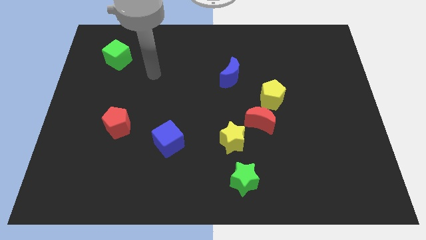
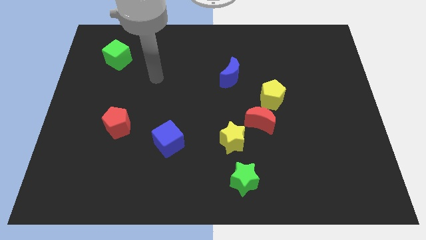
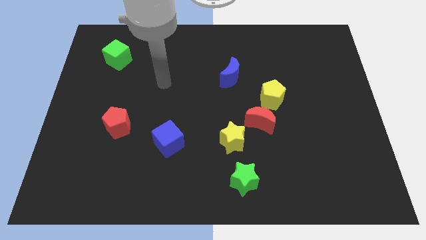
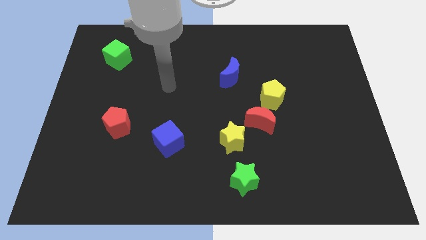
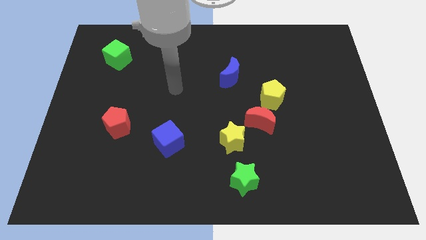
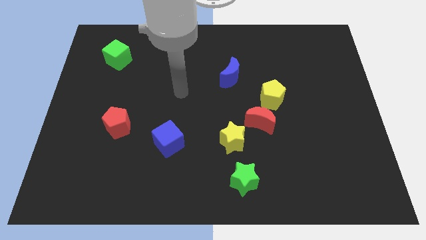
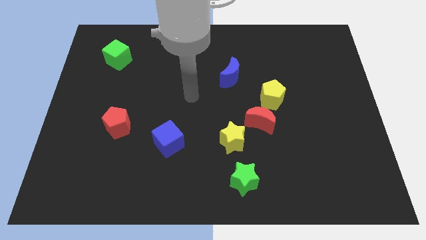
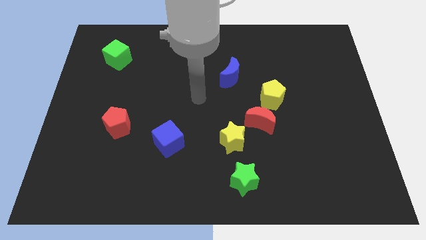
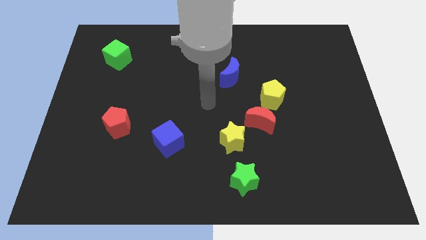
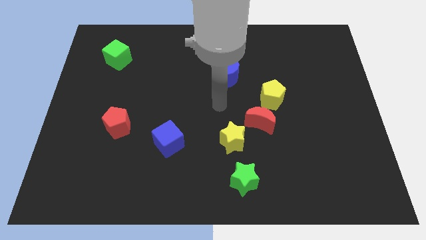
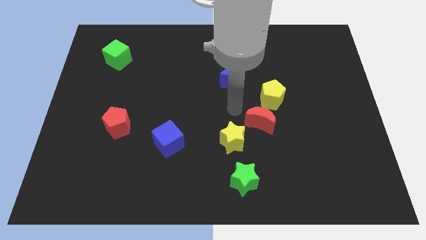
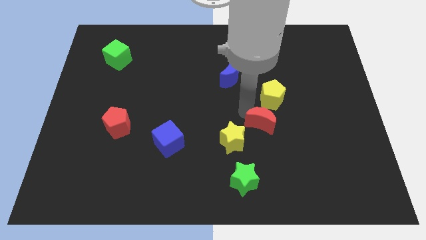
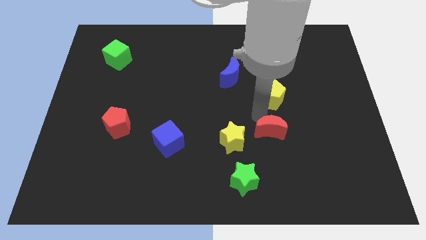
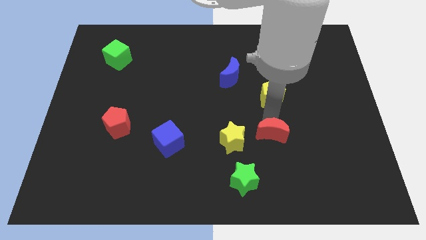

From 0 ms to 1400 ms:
move the yellow pentagon away from the red moon

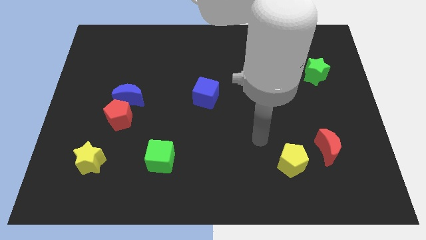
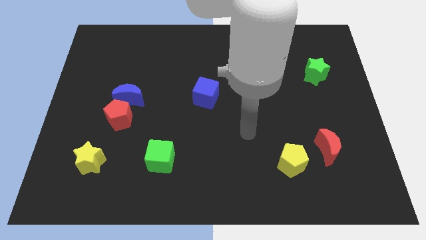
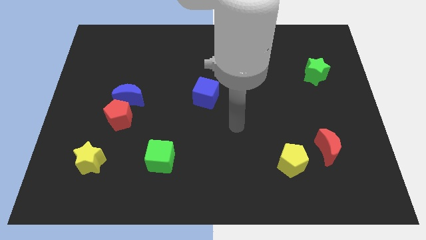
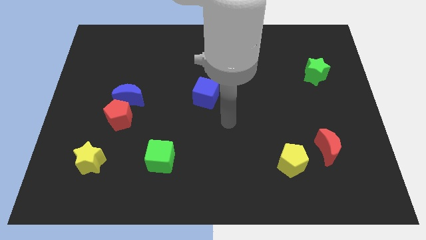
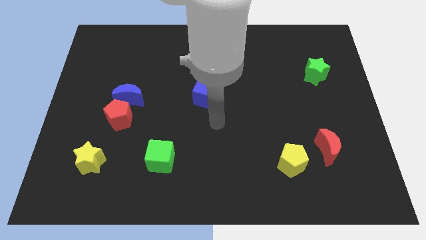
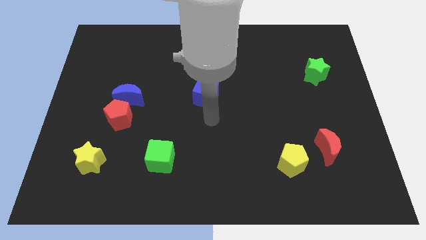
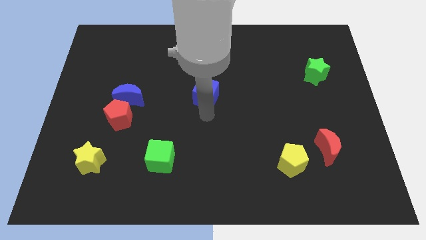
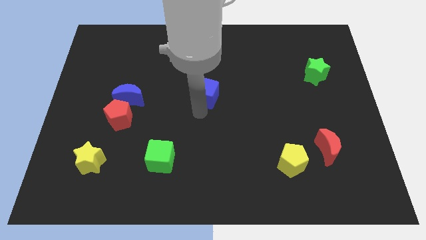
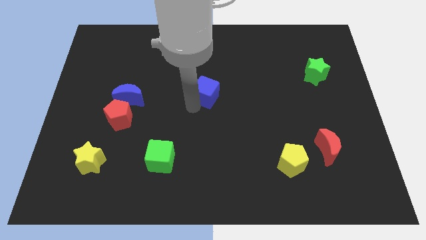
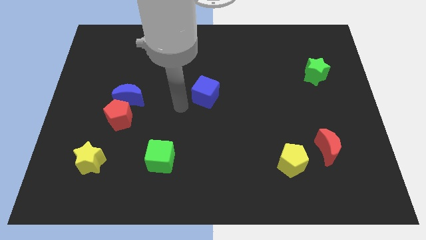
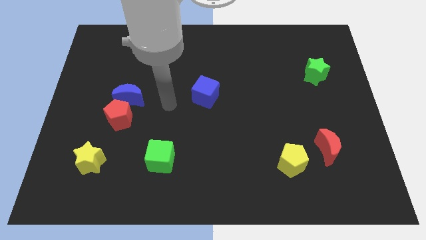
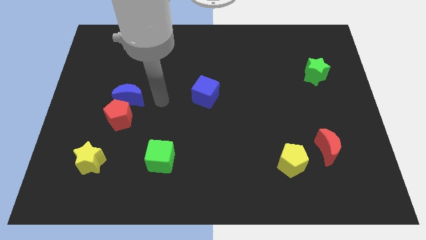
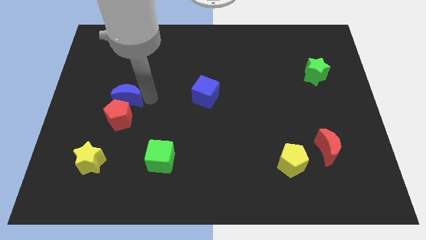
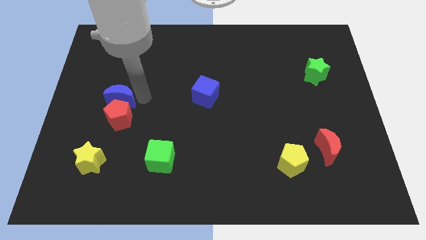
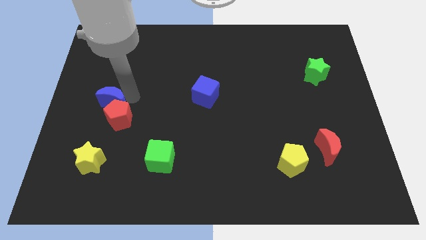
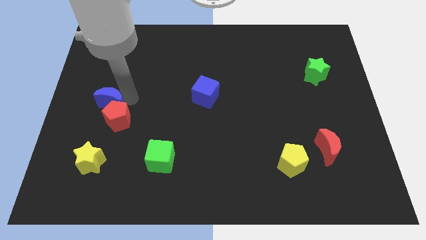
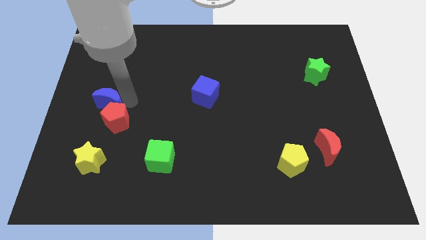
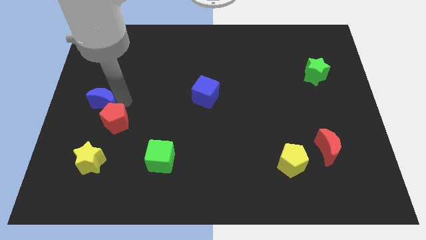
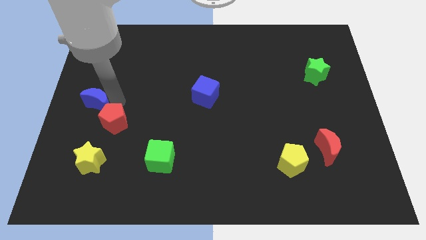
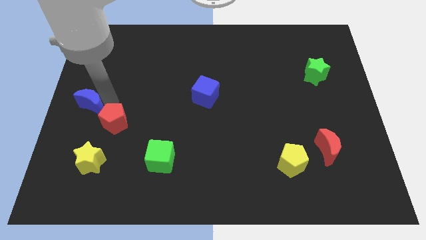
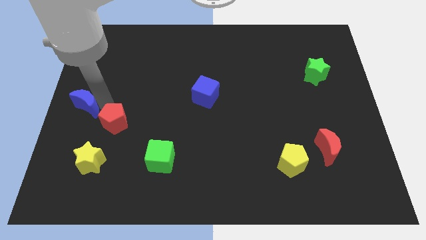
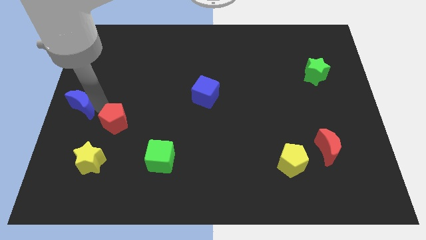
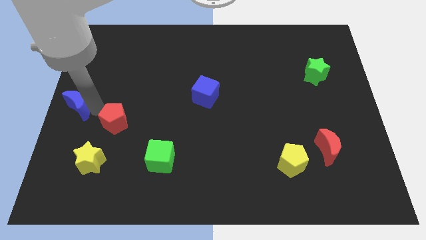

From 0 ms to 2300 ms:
move the red pentagon away from the blue moon

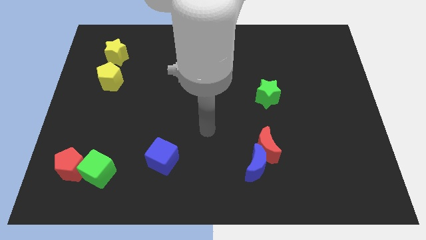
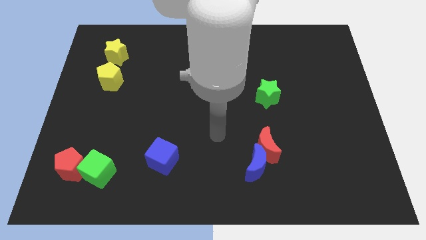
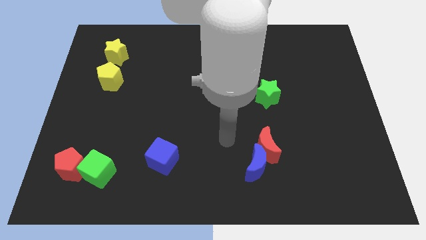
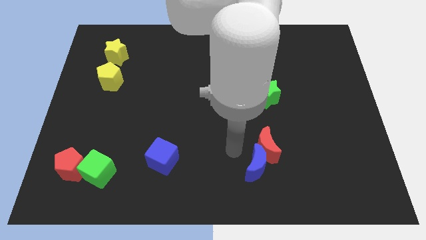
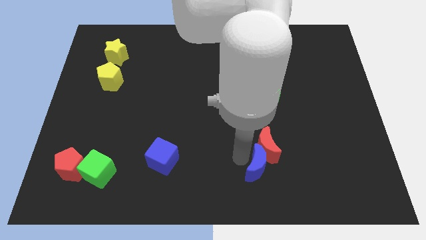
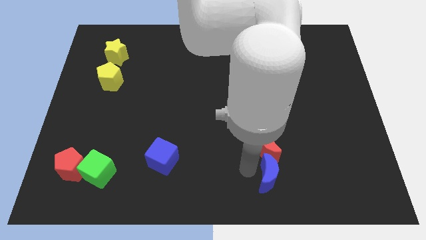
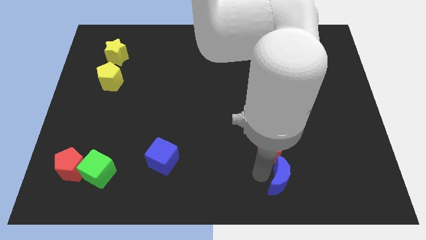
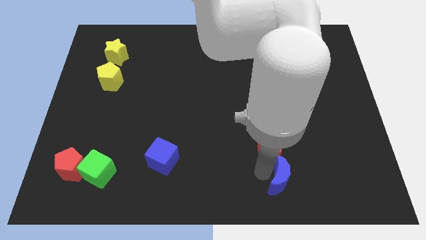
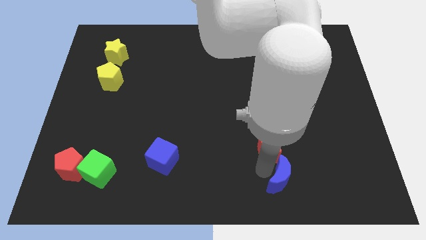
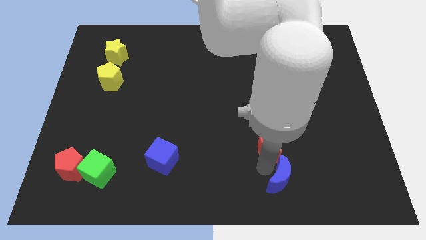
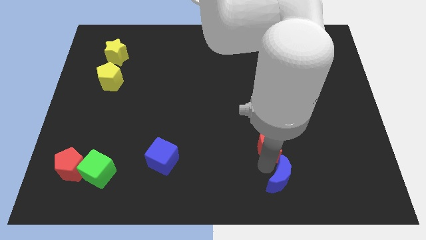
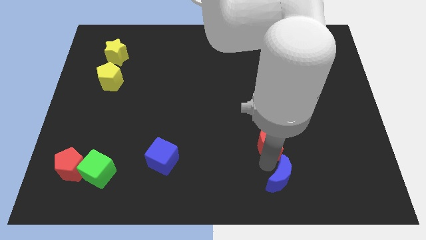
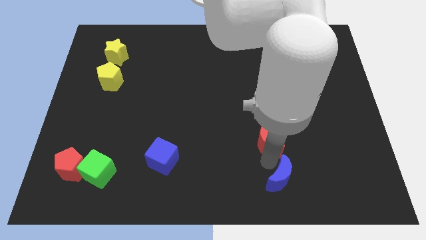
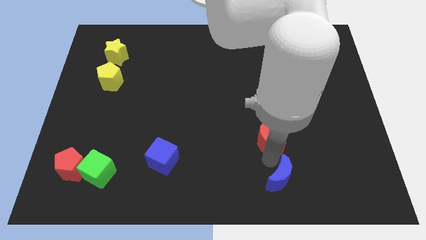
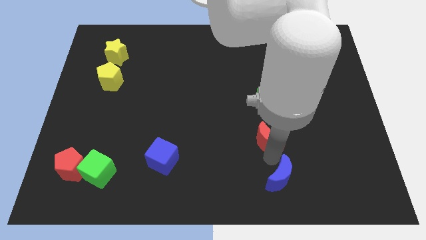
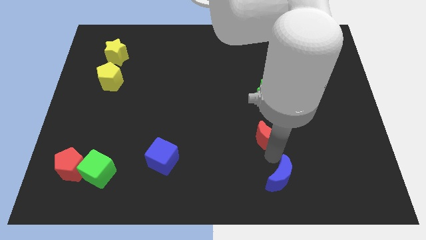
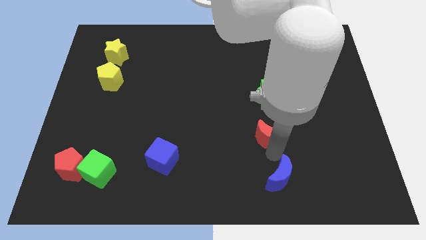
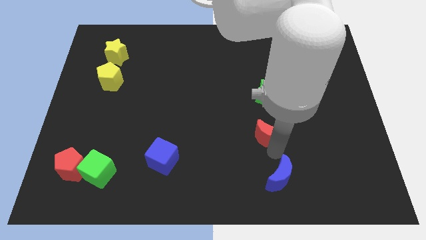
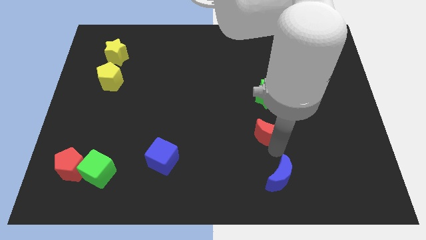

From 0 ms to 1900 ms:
separate the red moon from the blue moon

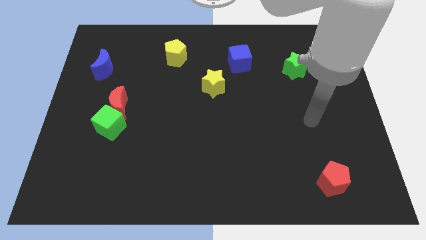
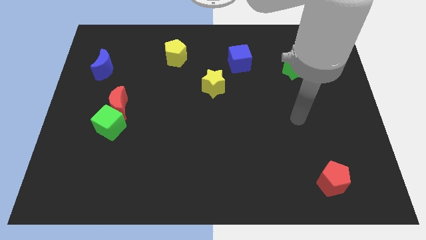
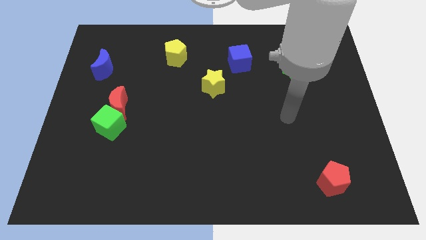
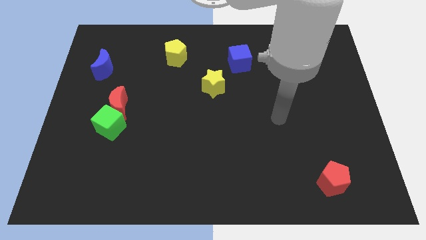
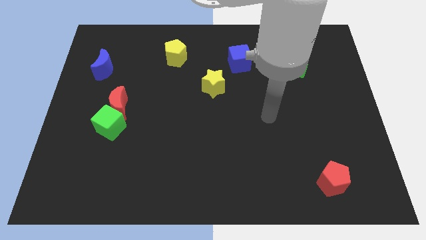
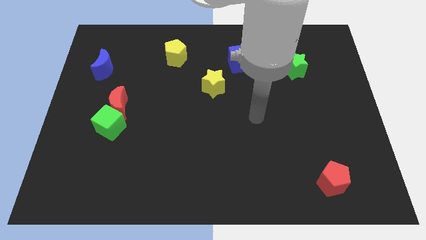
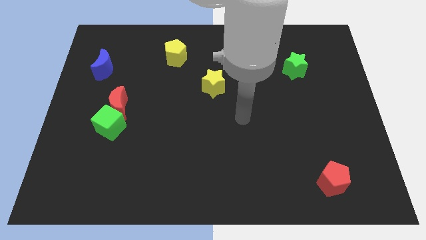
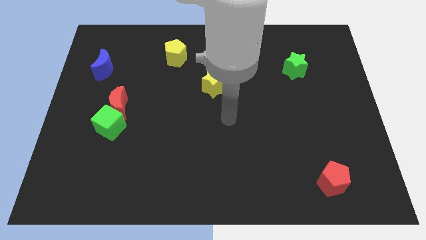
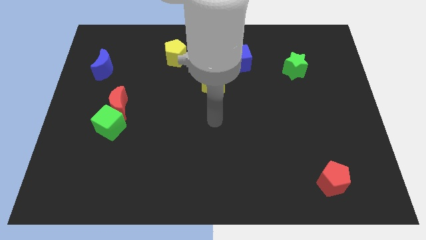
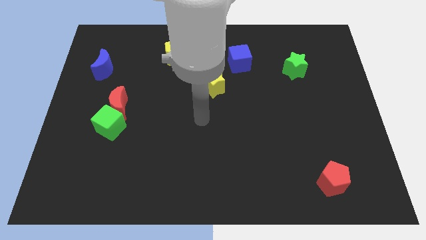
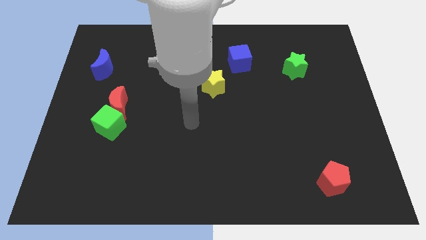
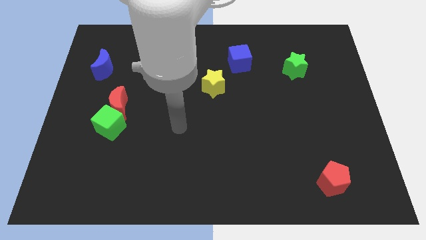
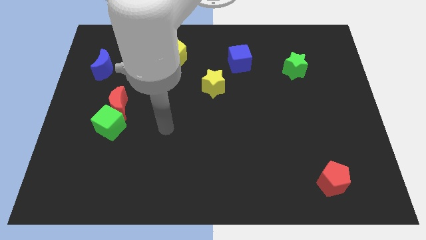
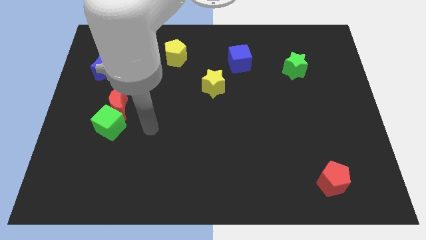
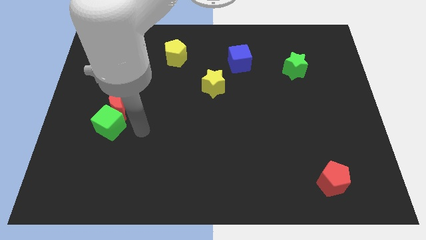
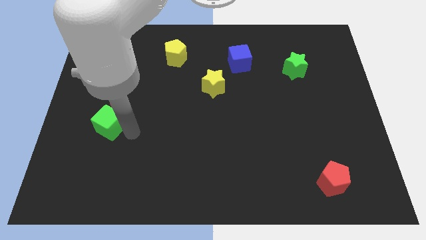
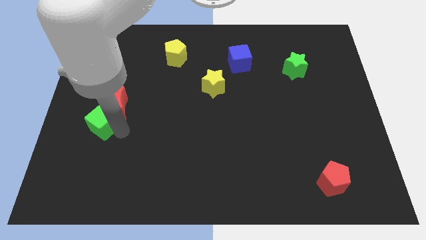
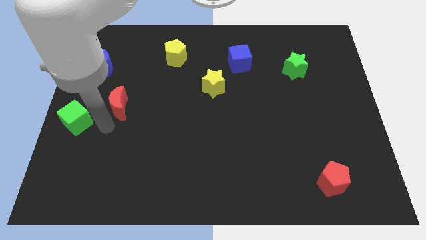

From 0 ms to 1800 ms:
move the red moon away from the green cube

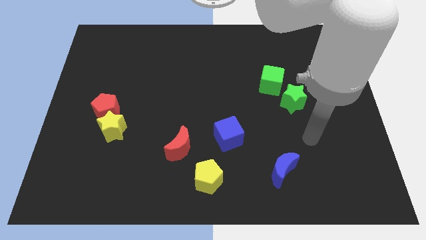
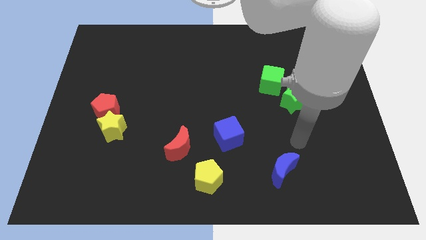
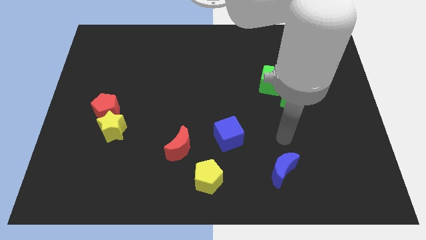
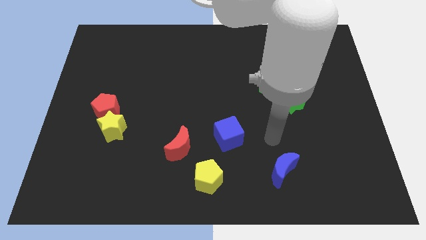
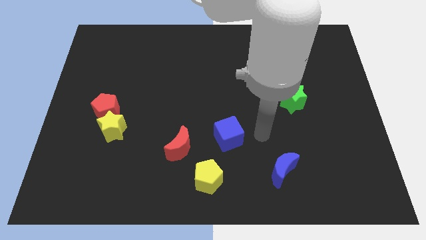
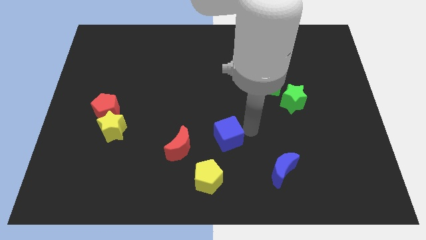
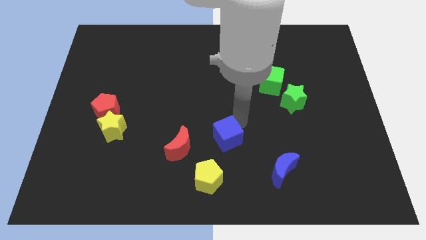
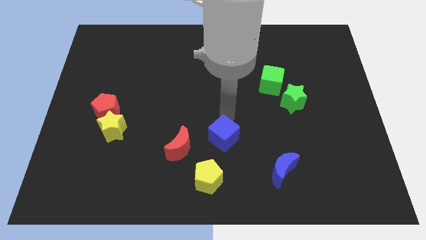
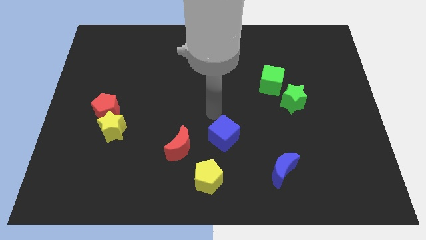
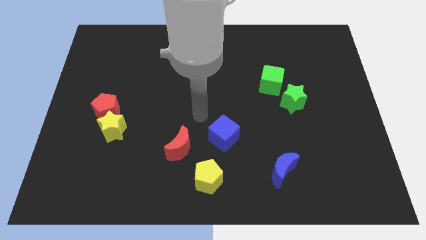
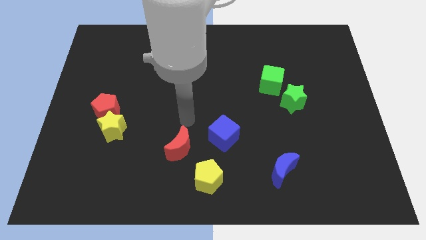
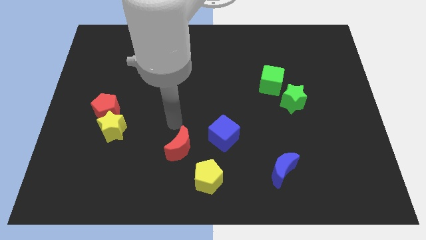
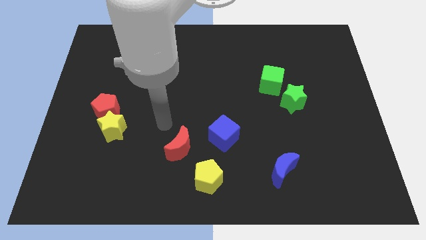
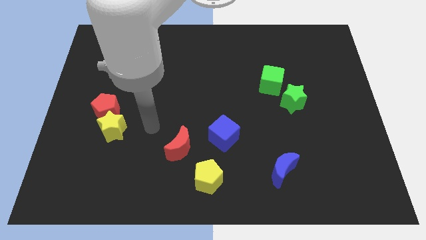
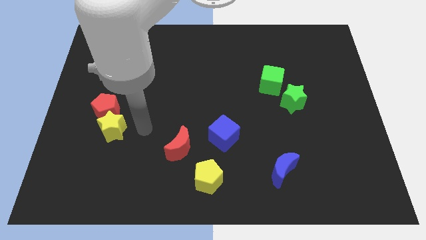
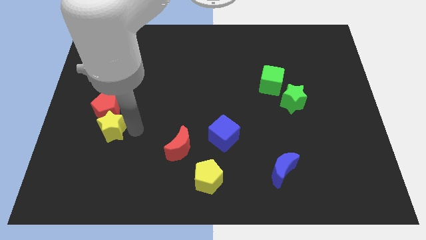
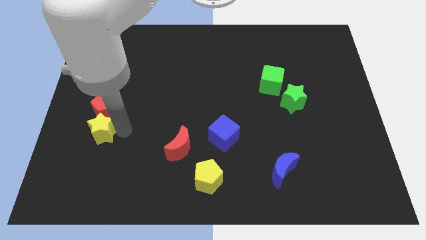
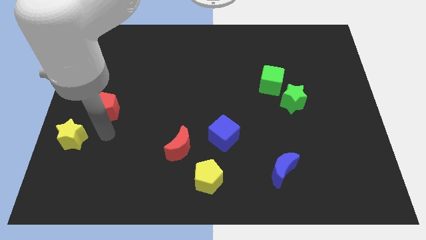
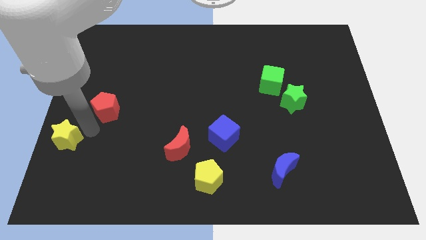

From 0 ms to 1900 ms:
move the red pentagon away from the yellow star

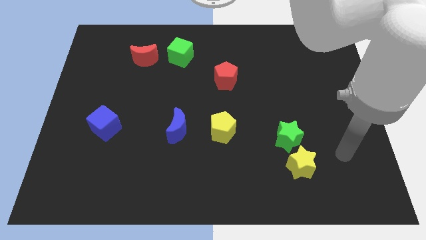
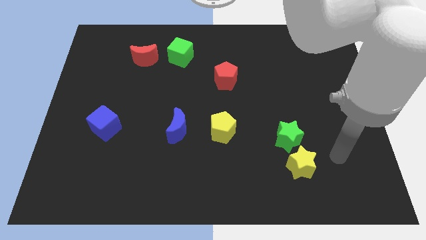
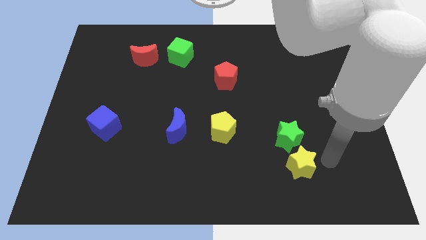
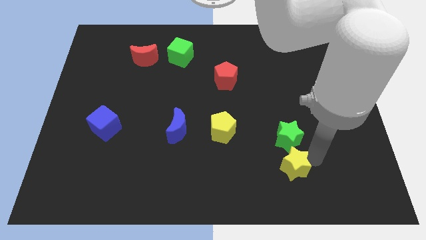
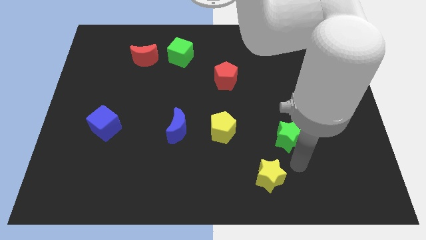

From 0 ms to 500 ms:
pull the green star apart from the yellow star
